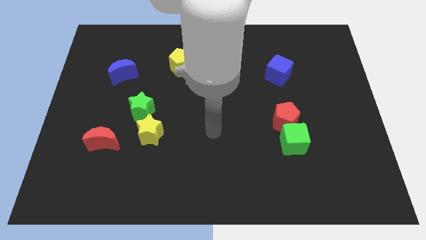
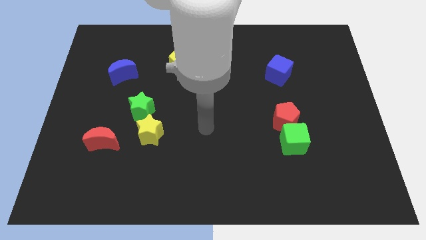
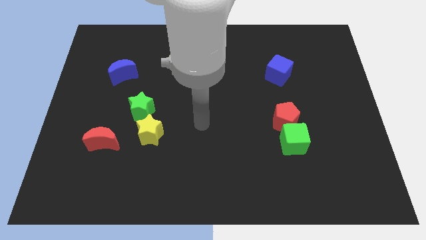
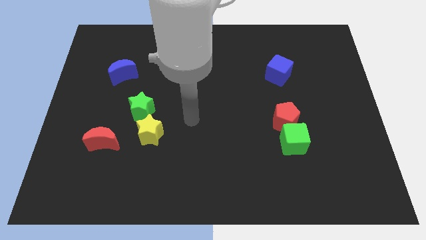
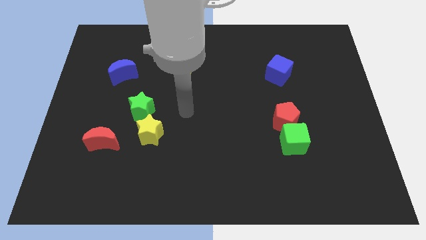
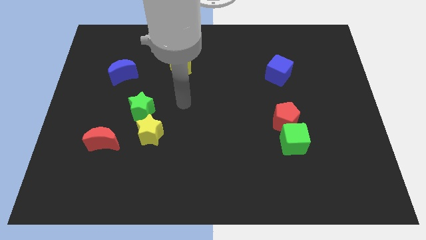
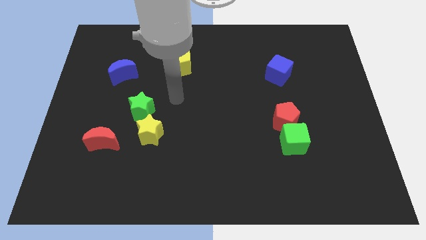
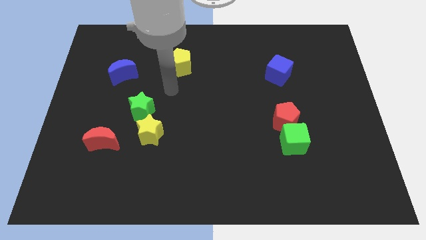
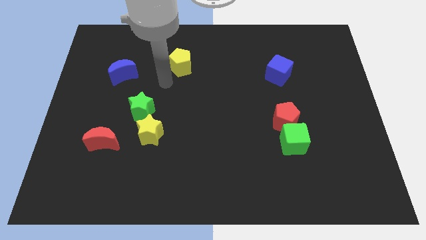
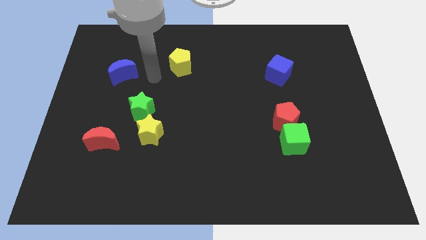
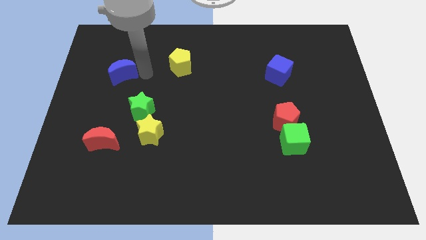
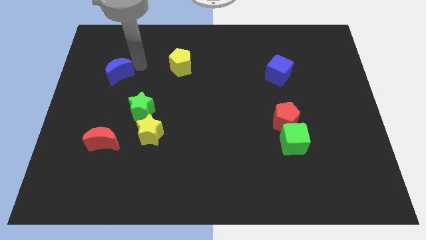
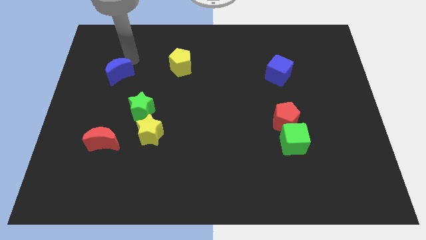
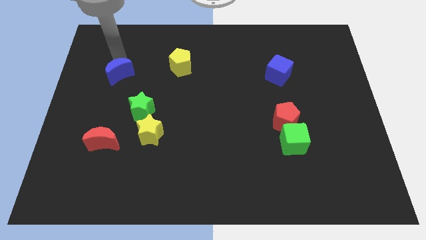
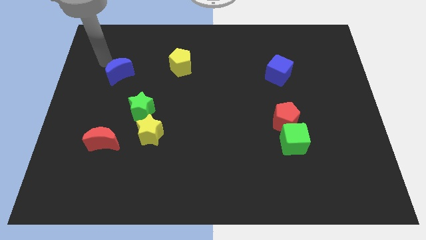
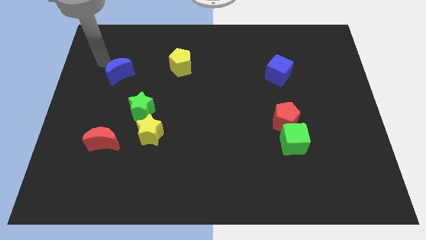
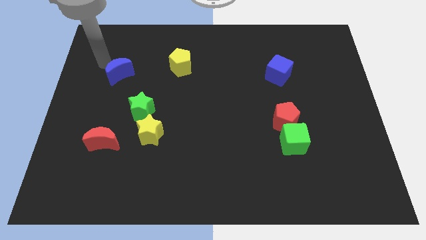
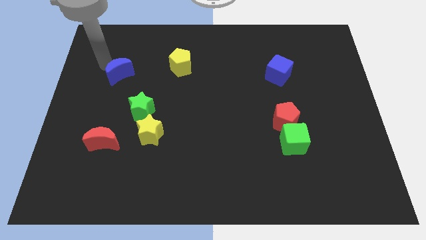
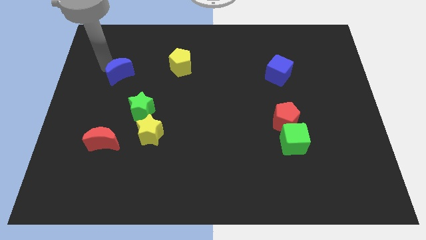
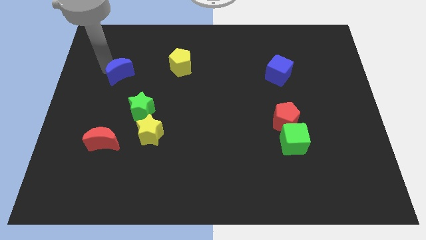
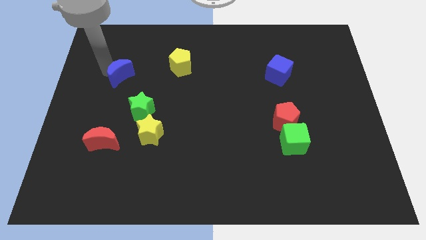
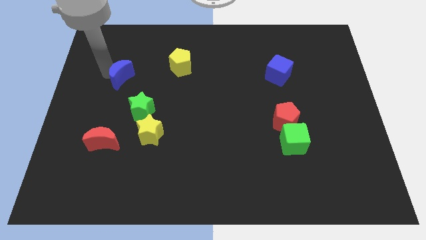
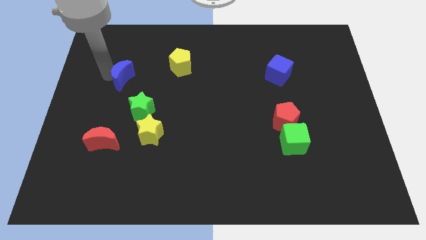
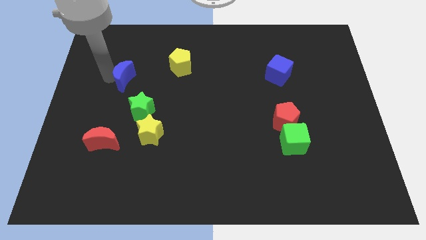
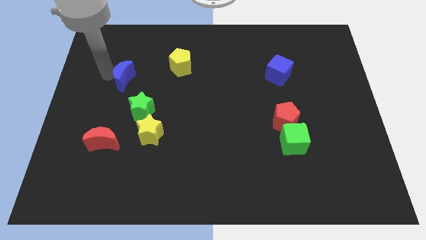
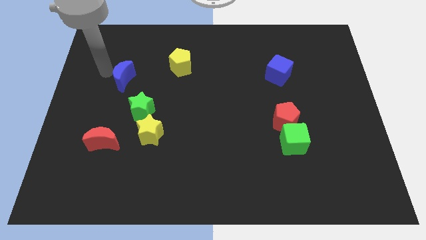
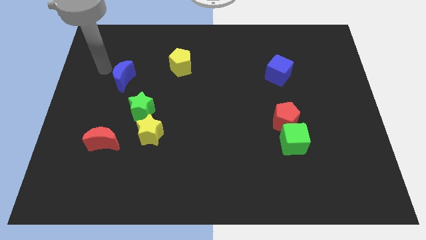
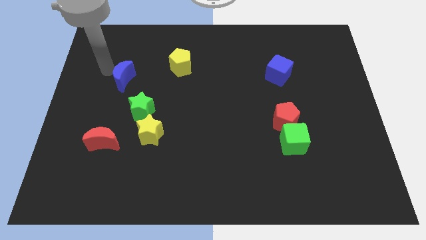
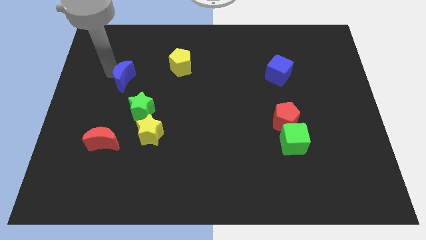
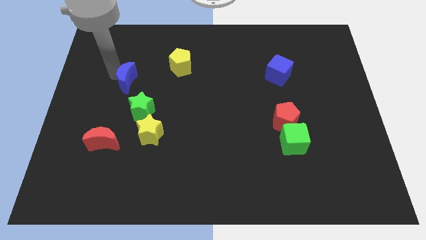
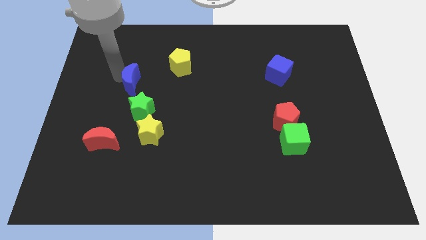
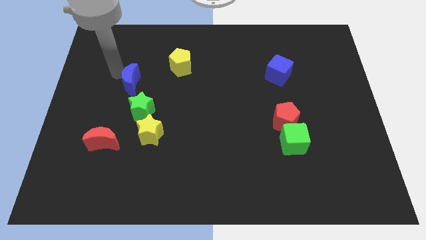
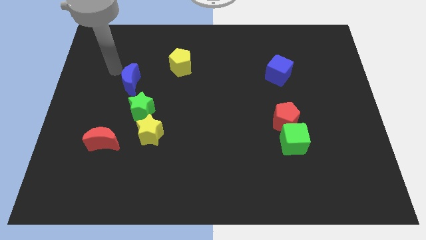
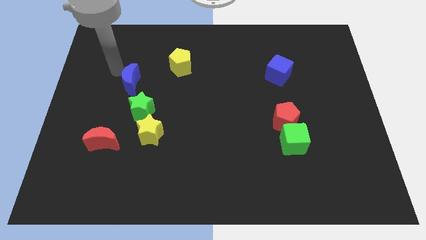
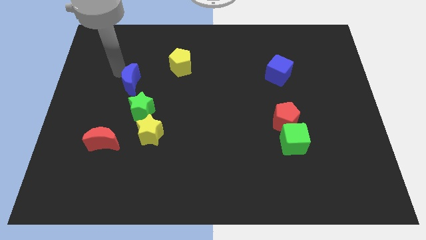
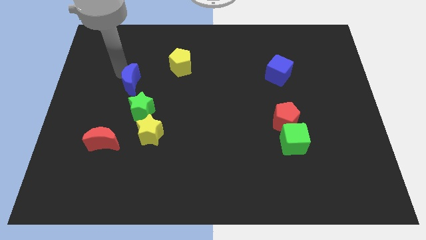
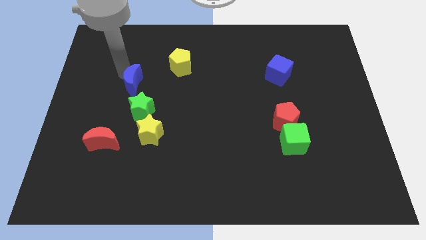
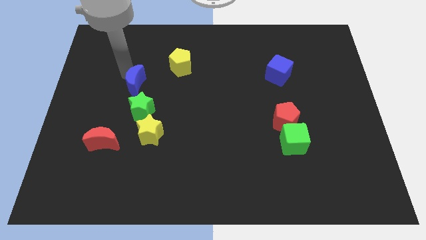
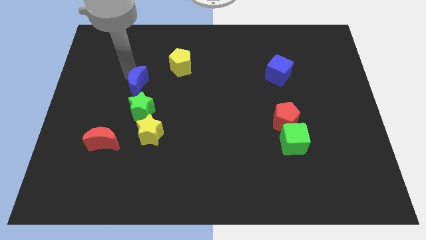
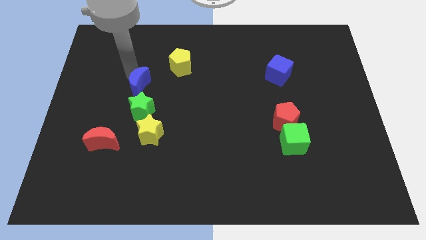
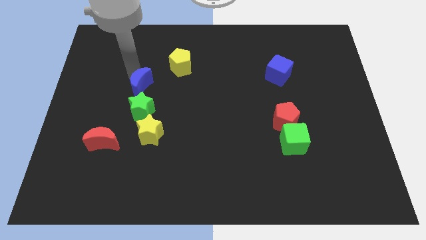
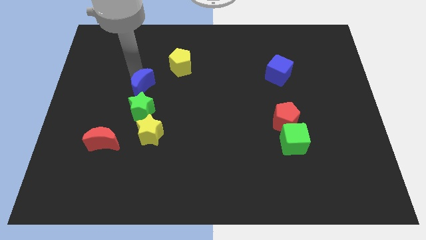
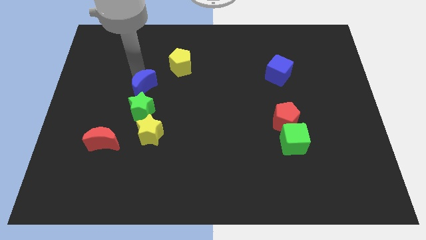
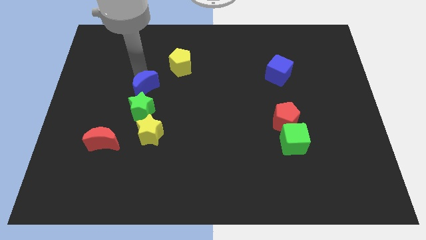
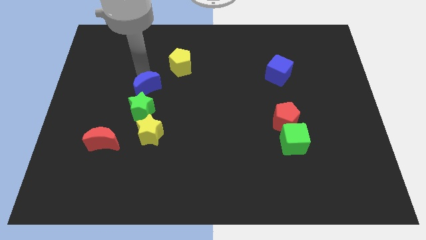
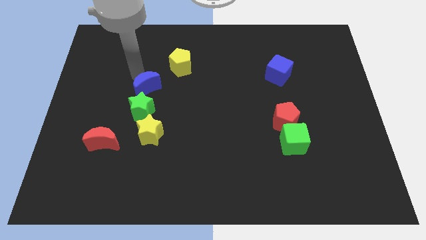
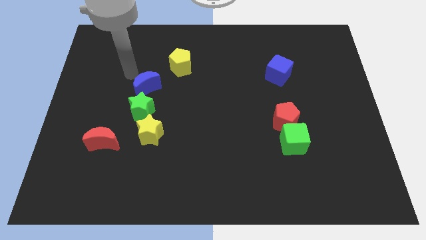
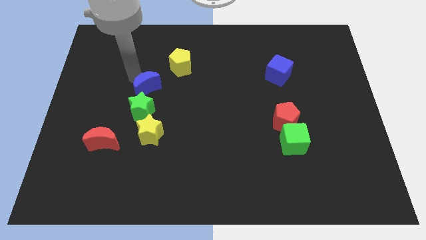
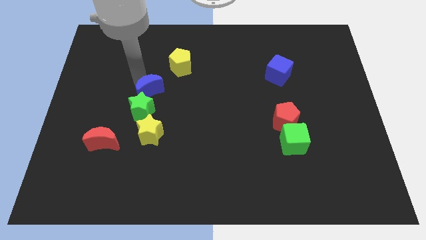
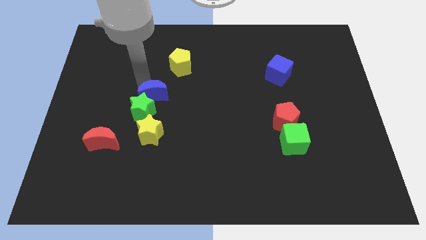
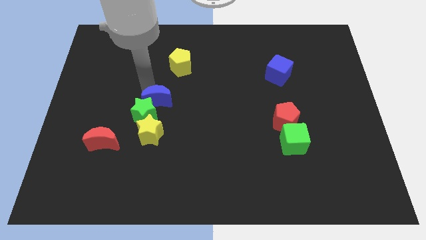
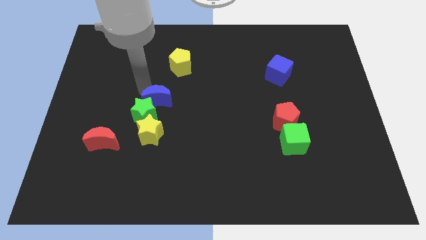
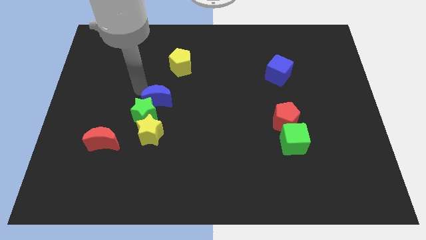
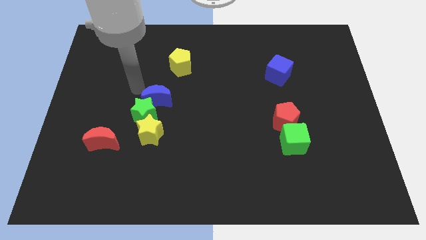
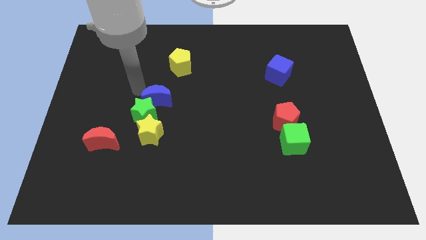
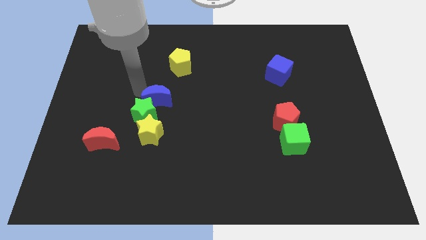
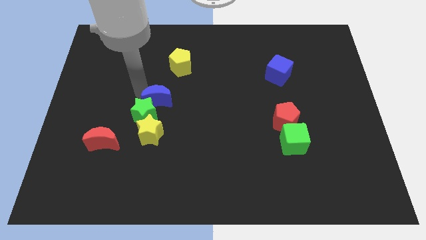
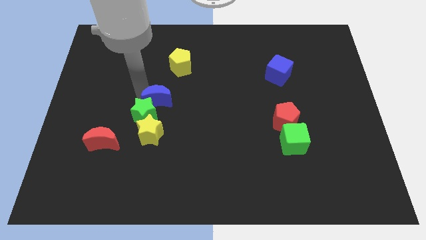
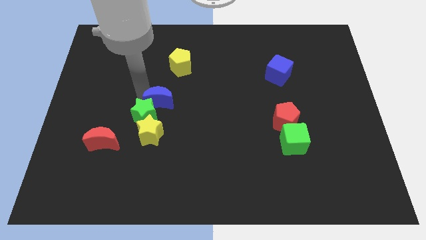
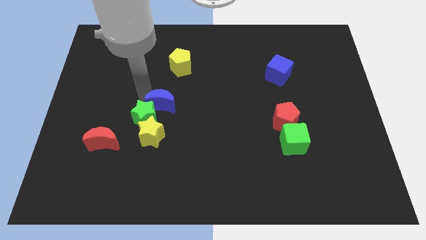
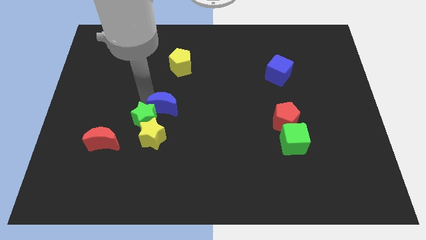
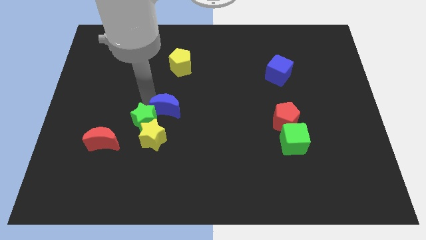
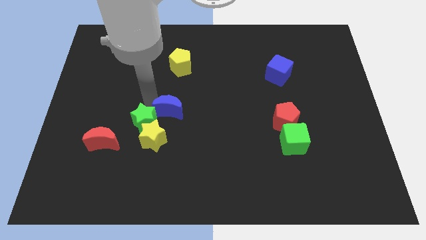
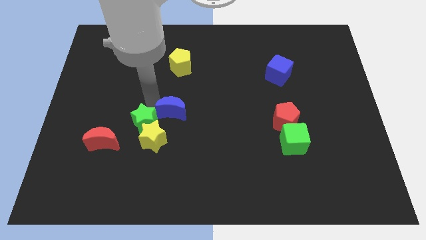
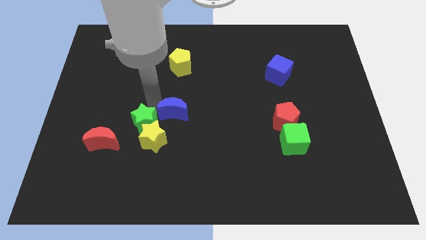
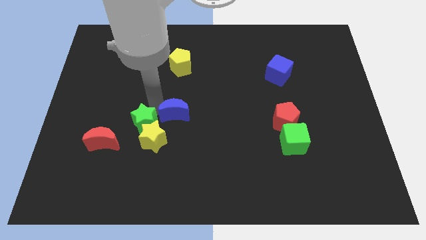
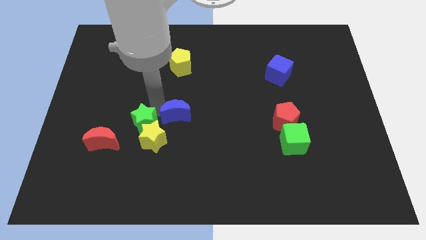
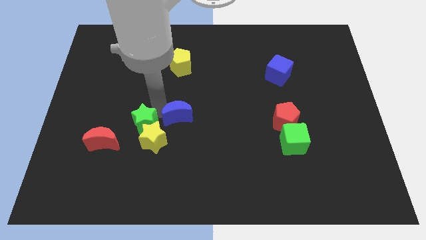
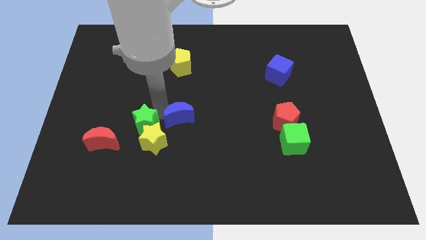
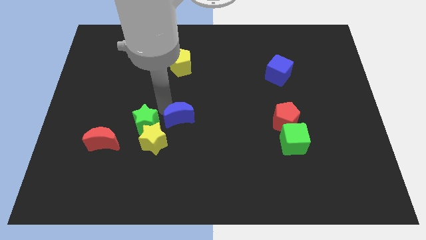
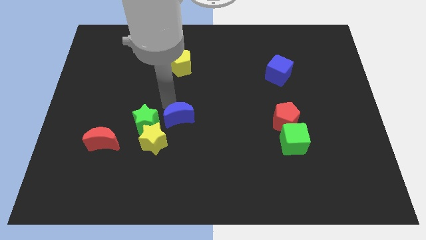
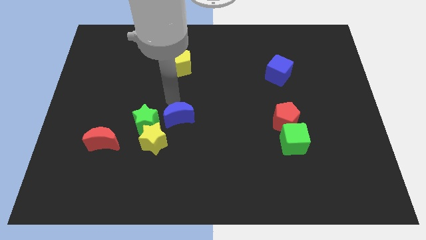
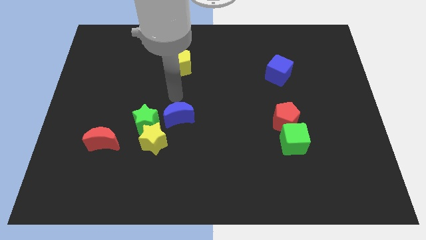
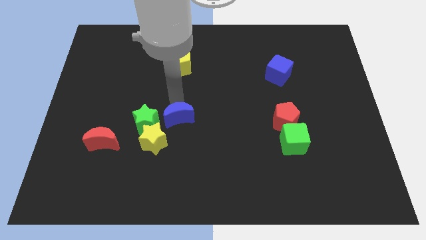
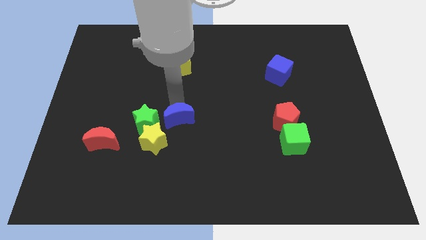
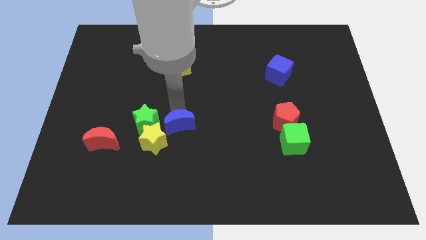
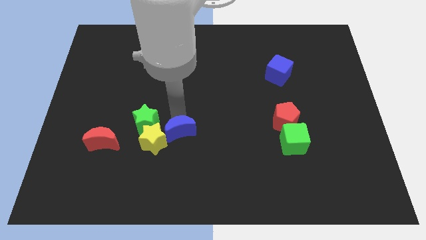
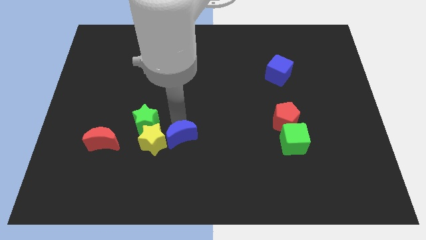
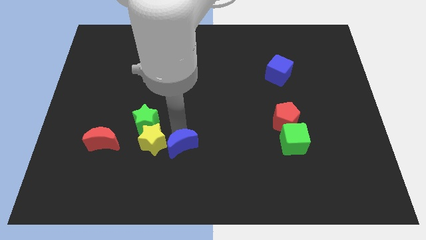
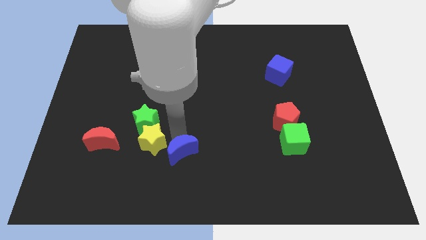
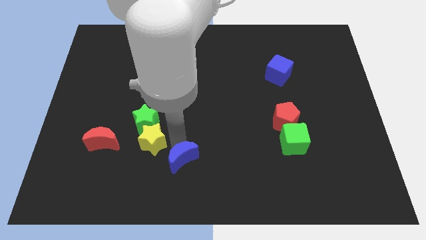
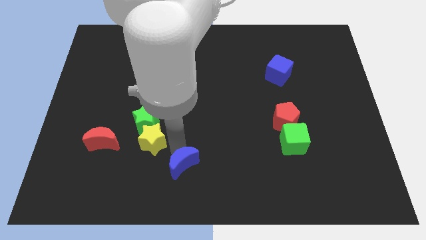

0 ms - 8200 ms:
slide the blue moon to the bottom
